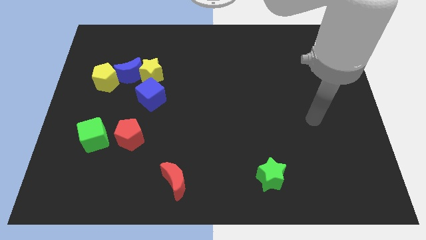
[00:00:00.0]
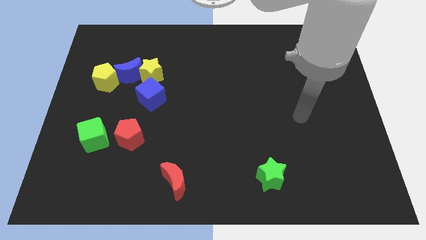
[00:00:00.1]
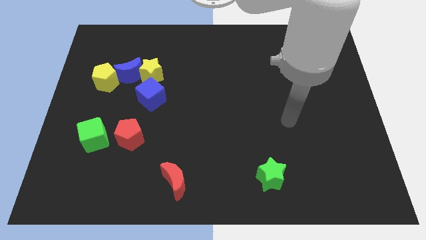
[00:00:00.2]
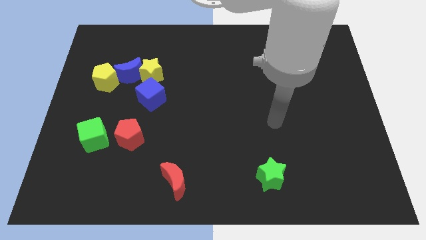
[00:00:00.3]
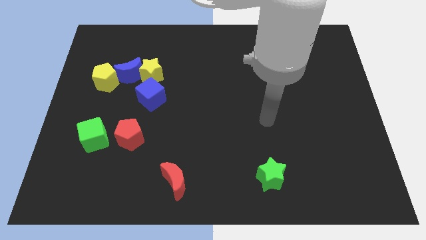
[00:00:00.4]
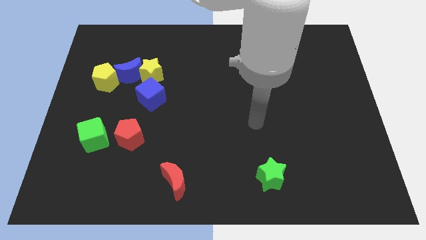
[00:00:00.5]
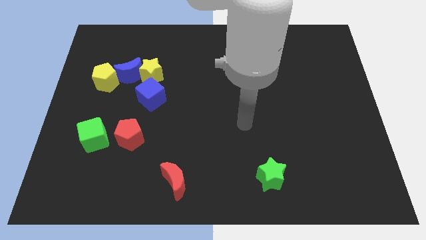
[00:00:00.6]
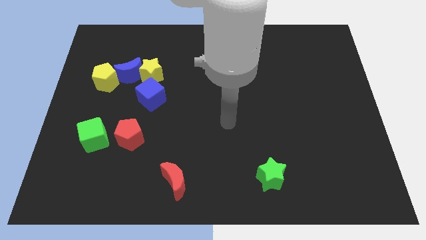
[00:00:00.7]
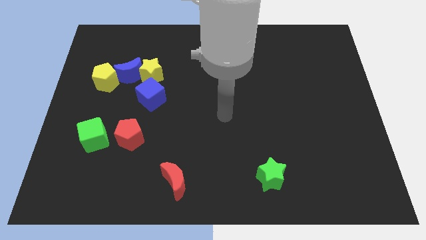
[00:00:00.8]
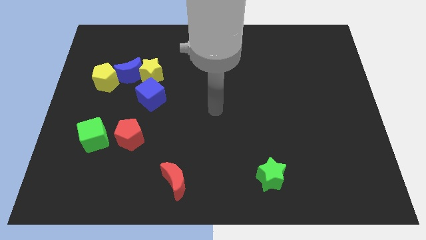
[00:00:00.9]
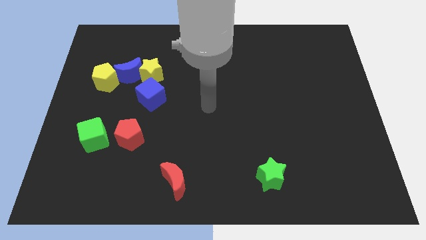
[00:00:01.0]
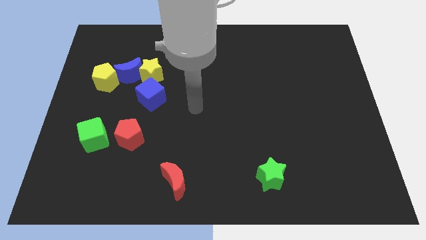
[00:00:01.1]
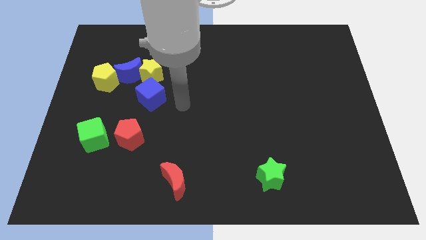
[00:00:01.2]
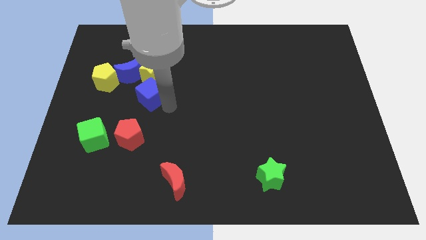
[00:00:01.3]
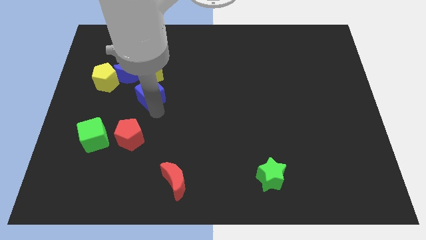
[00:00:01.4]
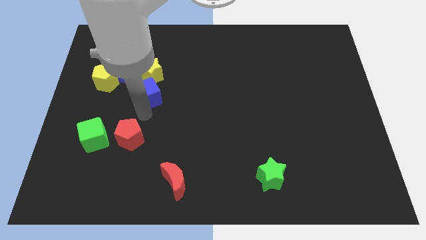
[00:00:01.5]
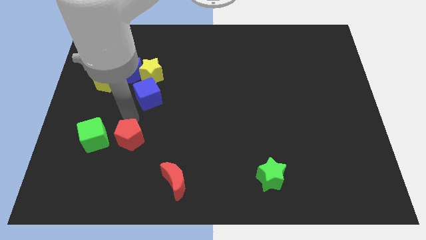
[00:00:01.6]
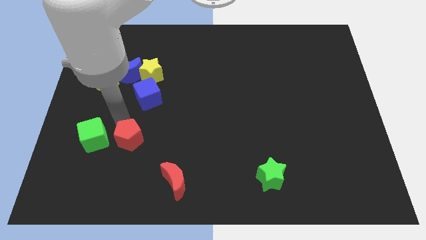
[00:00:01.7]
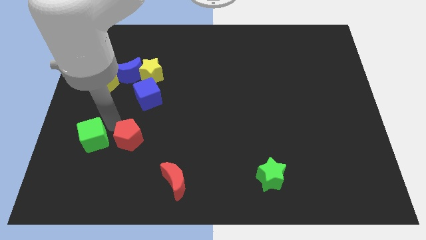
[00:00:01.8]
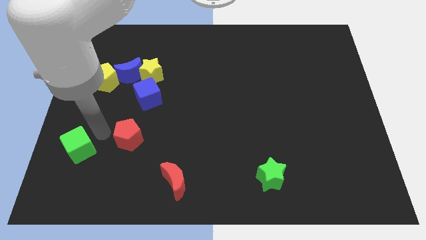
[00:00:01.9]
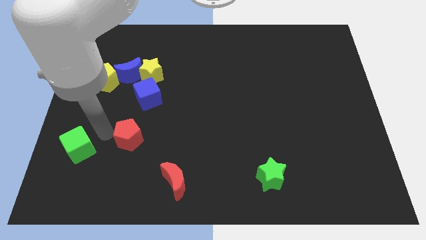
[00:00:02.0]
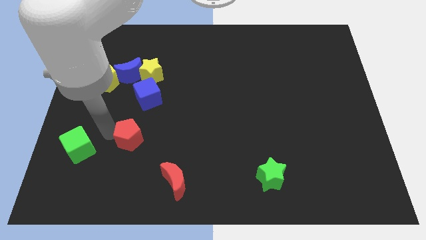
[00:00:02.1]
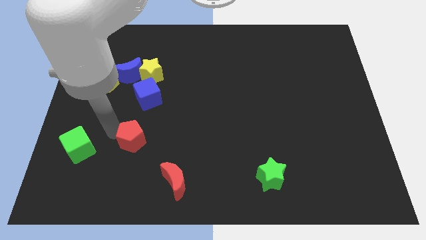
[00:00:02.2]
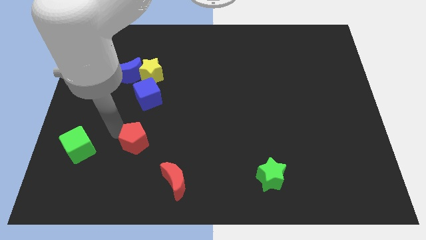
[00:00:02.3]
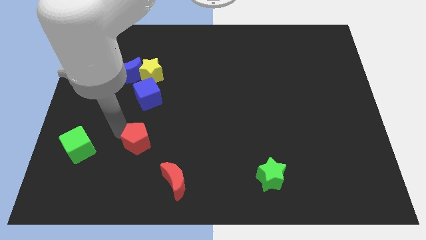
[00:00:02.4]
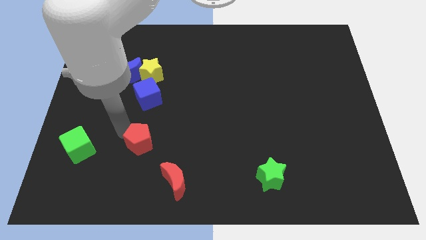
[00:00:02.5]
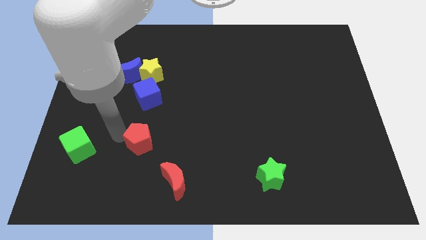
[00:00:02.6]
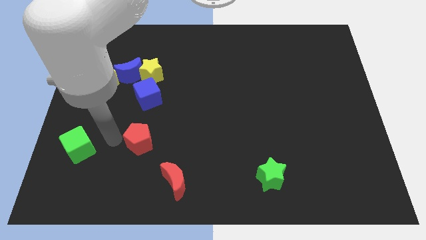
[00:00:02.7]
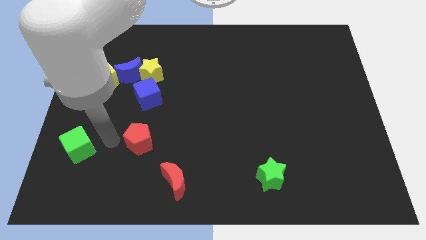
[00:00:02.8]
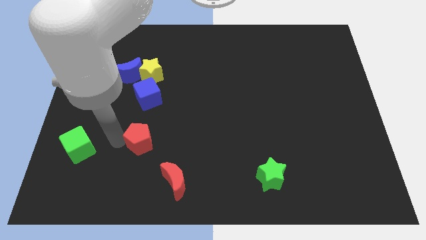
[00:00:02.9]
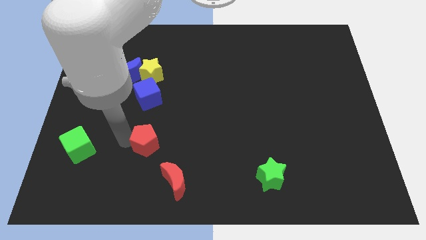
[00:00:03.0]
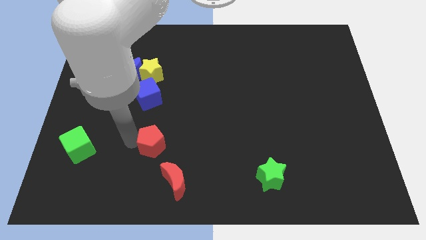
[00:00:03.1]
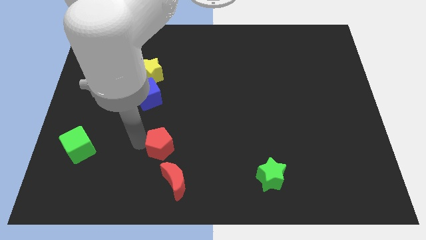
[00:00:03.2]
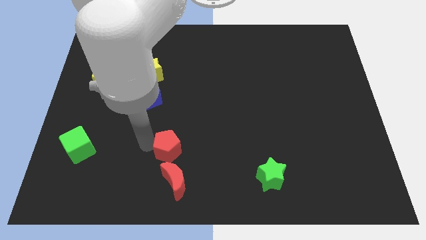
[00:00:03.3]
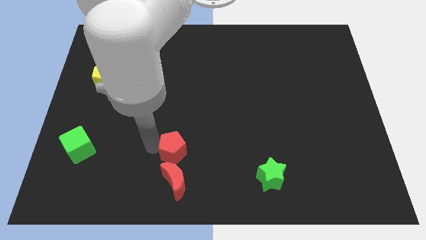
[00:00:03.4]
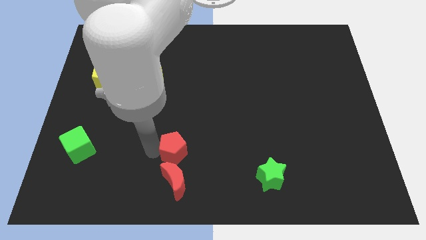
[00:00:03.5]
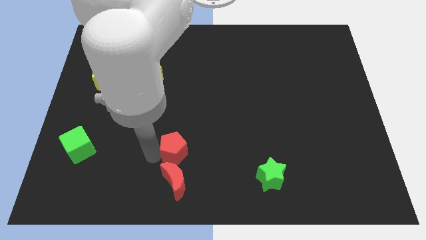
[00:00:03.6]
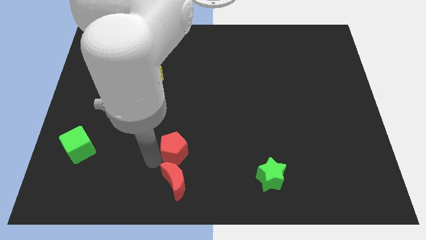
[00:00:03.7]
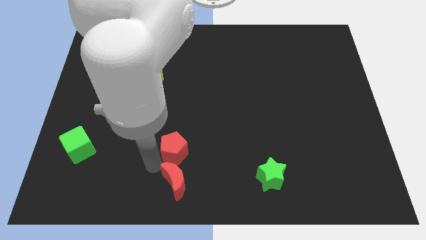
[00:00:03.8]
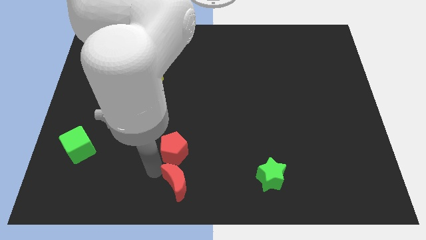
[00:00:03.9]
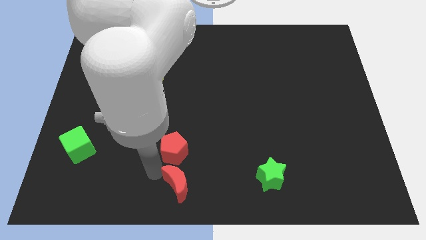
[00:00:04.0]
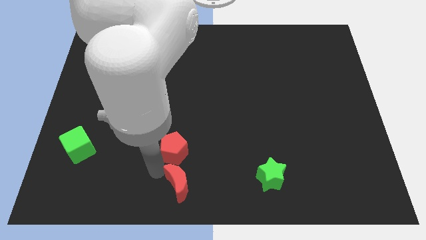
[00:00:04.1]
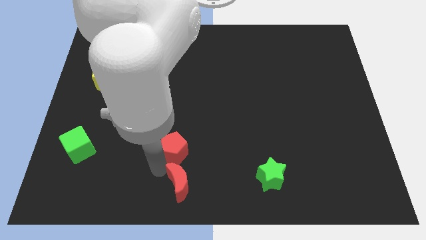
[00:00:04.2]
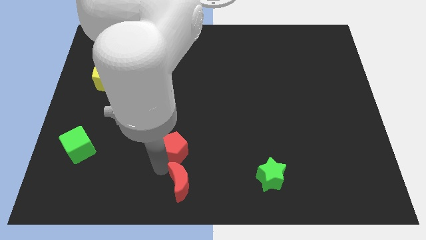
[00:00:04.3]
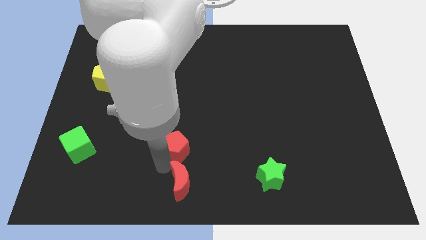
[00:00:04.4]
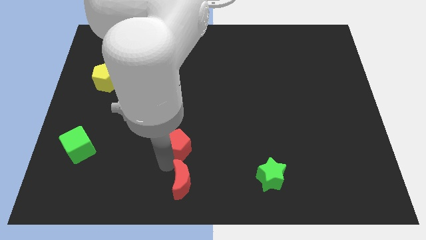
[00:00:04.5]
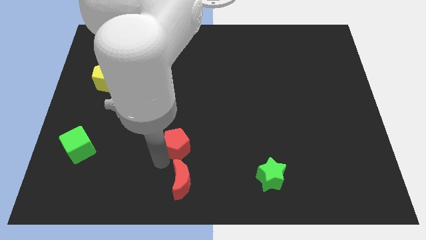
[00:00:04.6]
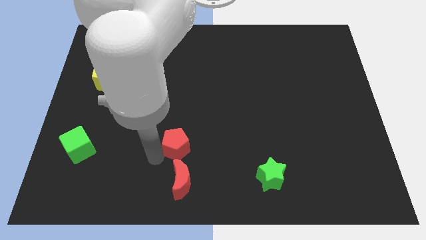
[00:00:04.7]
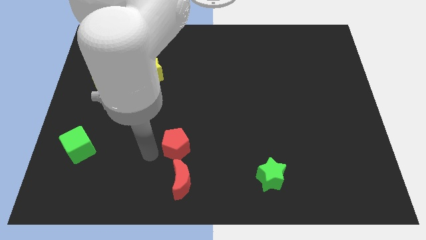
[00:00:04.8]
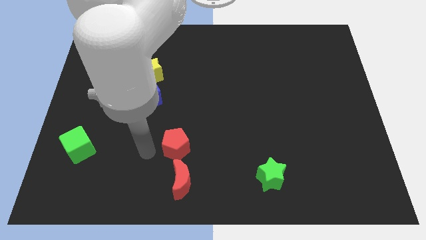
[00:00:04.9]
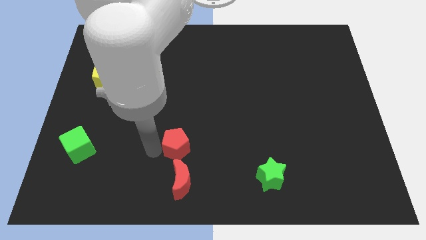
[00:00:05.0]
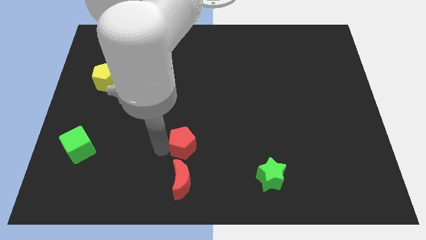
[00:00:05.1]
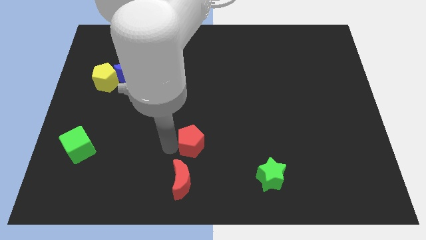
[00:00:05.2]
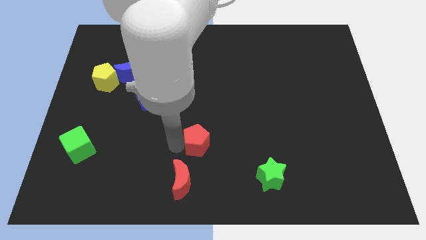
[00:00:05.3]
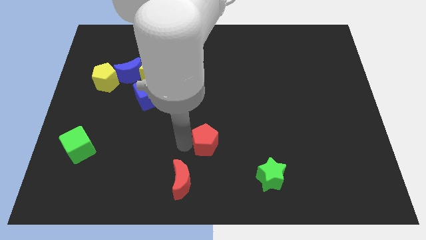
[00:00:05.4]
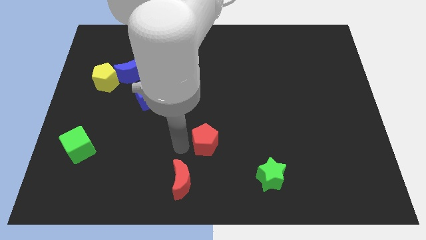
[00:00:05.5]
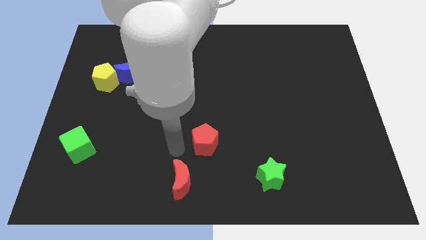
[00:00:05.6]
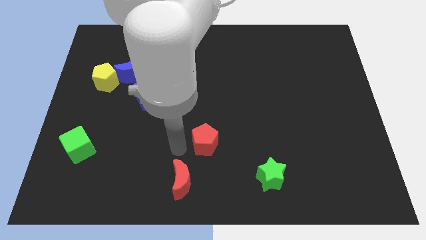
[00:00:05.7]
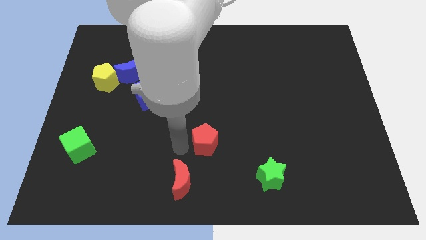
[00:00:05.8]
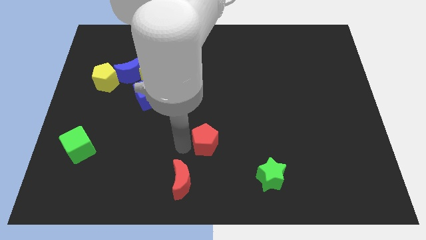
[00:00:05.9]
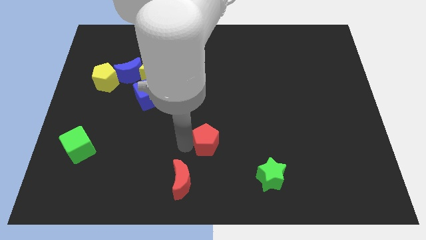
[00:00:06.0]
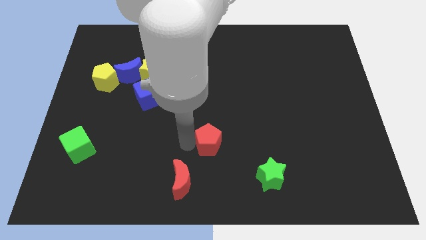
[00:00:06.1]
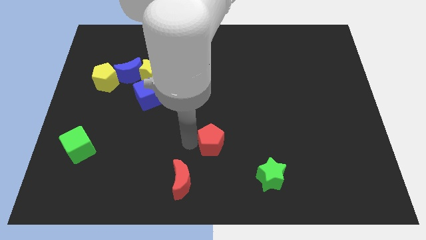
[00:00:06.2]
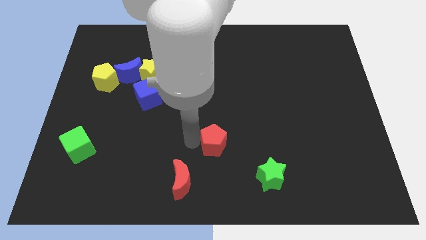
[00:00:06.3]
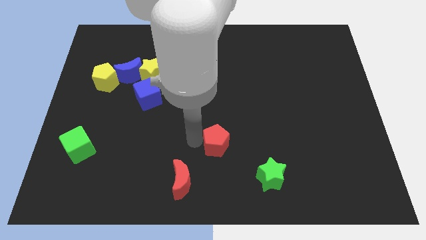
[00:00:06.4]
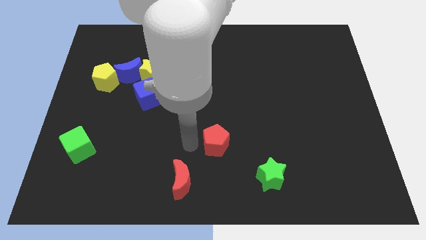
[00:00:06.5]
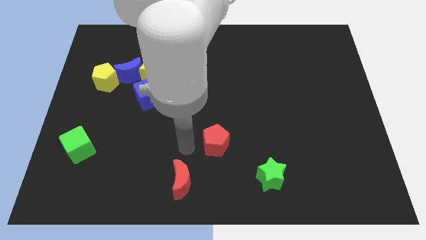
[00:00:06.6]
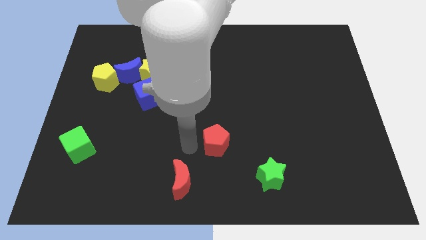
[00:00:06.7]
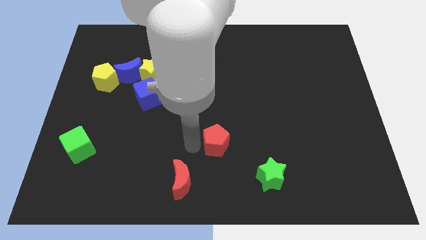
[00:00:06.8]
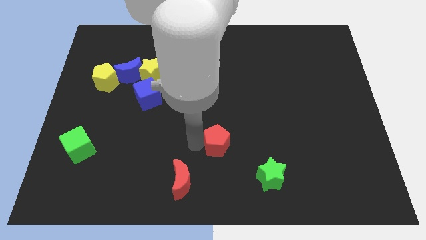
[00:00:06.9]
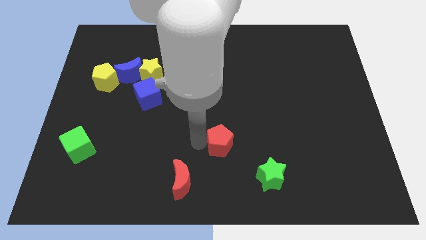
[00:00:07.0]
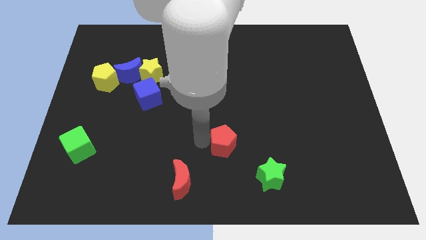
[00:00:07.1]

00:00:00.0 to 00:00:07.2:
push the red pentagon right

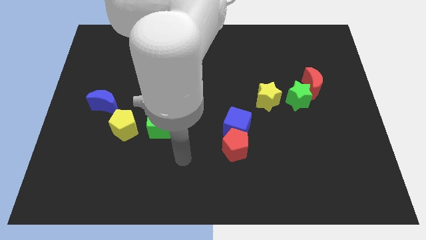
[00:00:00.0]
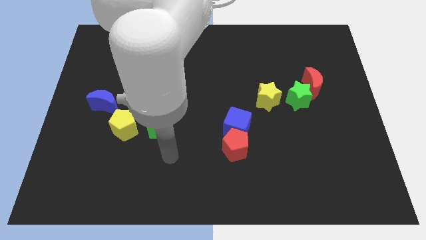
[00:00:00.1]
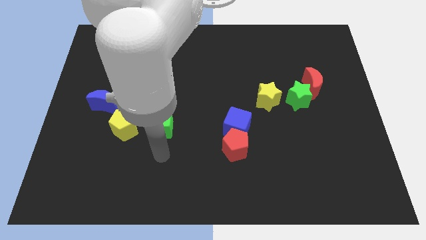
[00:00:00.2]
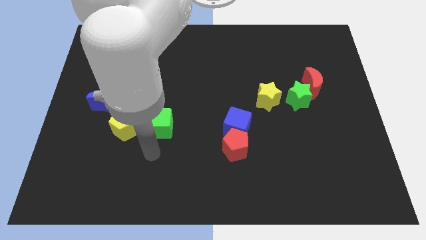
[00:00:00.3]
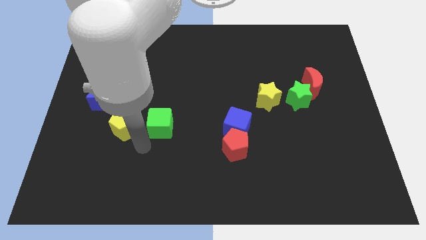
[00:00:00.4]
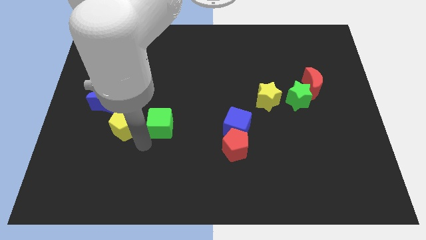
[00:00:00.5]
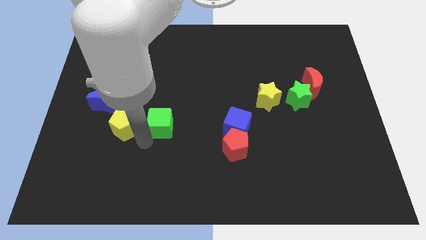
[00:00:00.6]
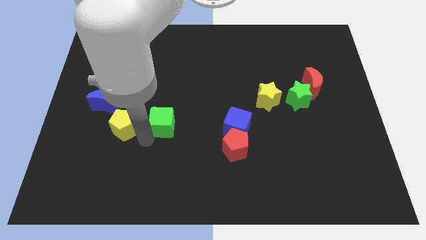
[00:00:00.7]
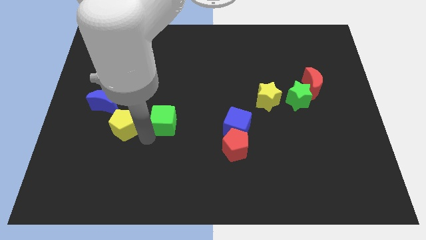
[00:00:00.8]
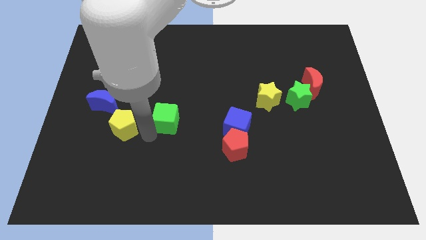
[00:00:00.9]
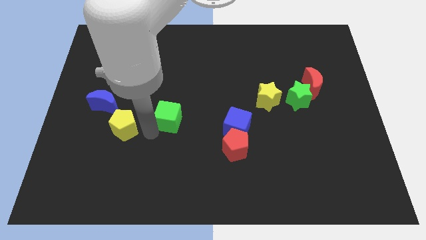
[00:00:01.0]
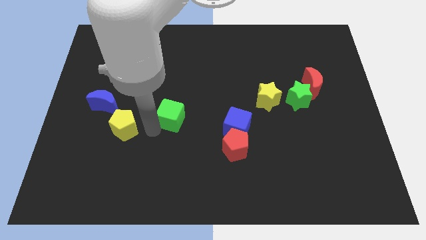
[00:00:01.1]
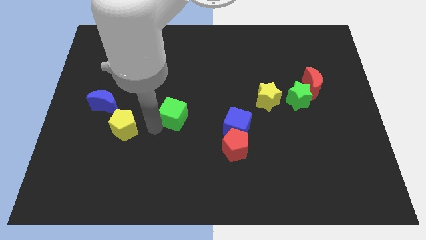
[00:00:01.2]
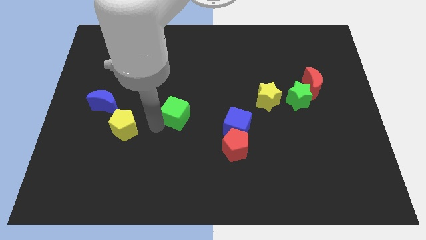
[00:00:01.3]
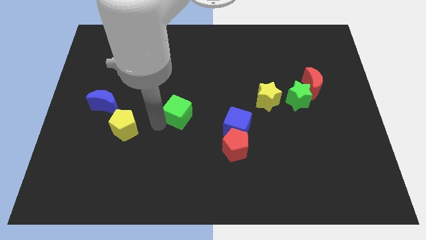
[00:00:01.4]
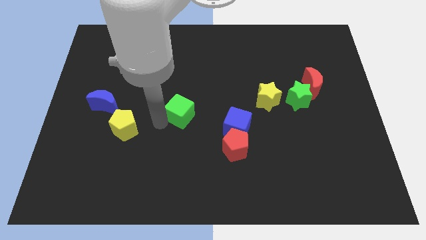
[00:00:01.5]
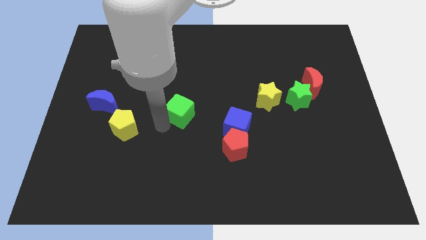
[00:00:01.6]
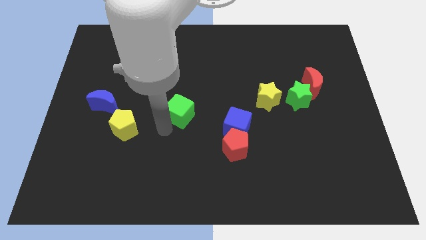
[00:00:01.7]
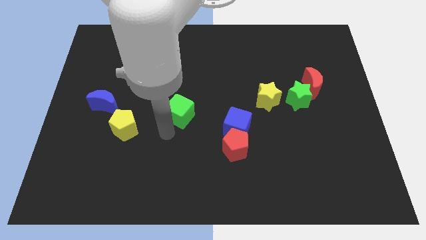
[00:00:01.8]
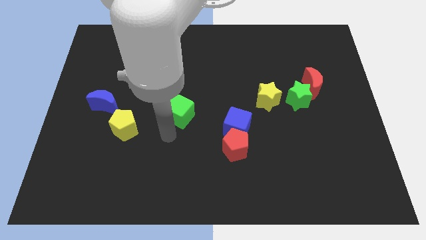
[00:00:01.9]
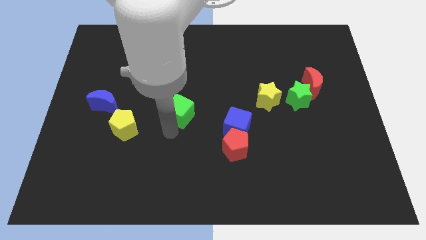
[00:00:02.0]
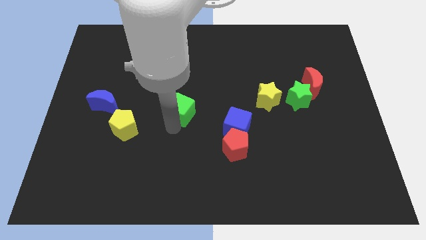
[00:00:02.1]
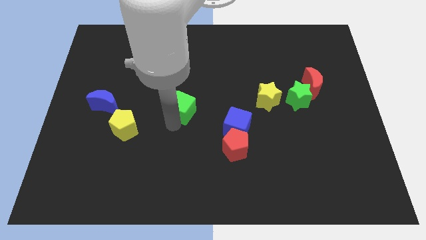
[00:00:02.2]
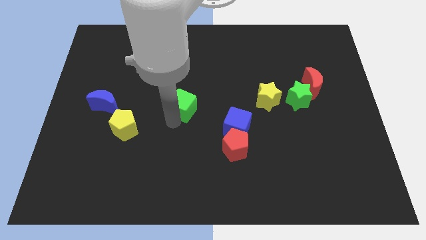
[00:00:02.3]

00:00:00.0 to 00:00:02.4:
slide the green cube diagonally up and right a bit
